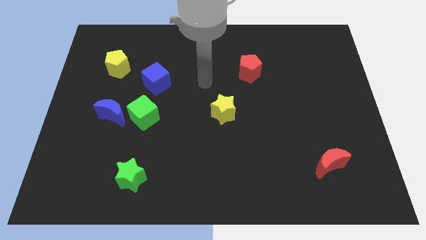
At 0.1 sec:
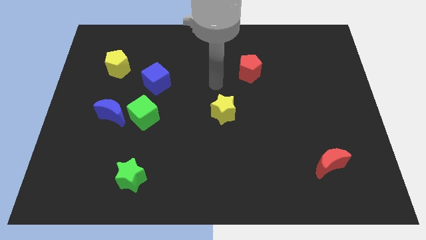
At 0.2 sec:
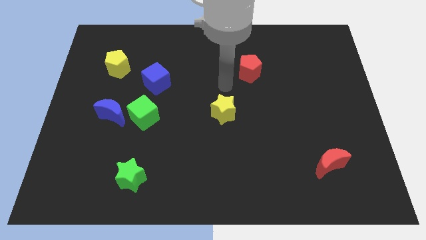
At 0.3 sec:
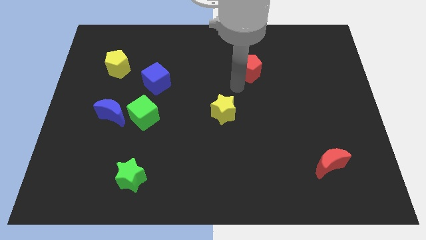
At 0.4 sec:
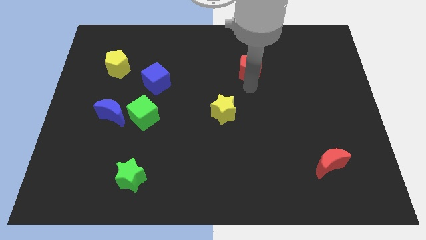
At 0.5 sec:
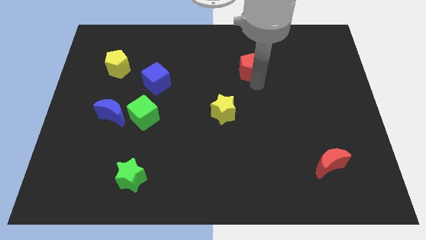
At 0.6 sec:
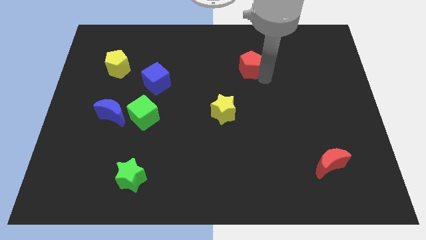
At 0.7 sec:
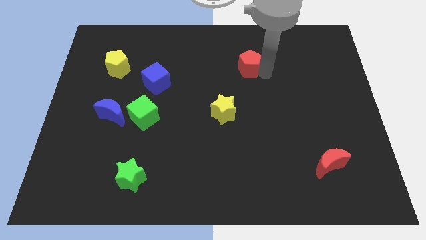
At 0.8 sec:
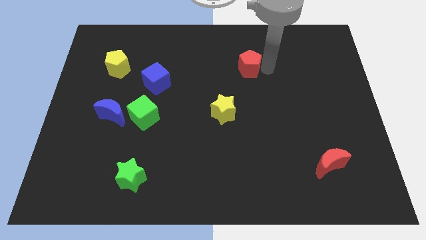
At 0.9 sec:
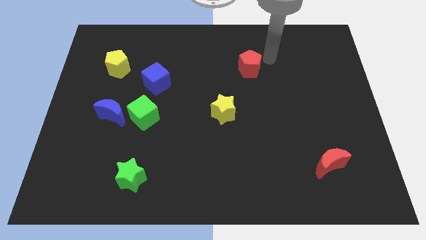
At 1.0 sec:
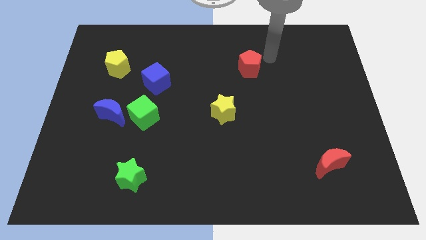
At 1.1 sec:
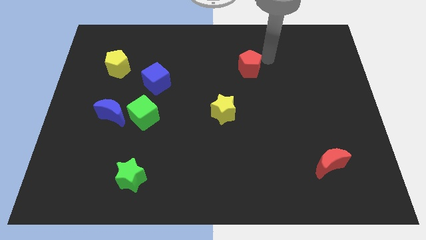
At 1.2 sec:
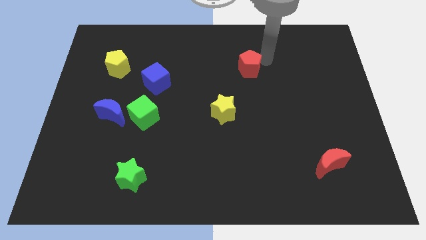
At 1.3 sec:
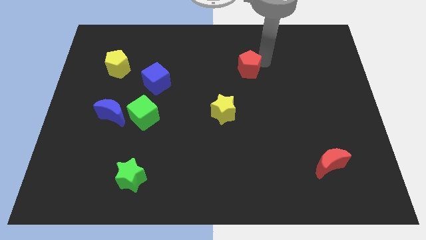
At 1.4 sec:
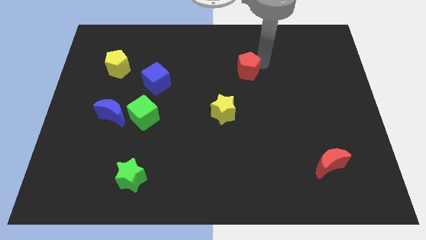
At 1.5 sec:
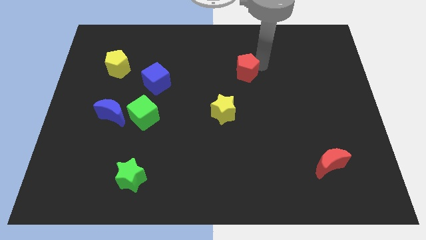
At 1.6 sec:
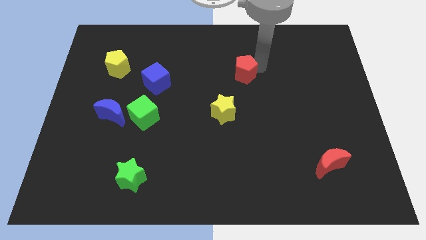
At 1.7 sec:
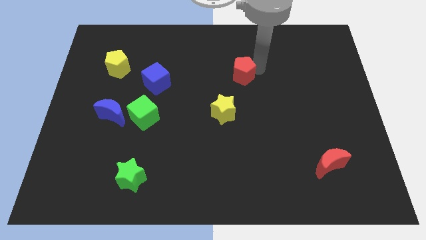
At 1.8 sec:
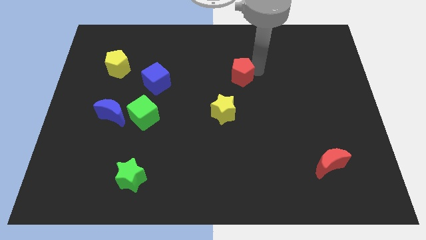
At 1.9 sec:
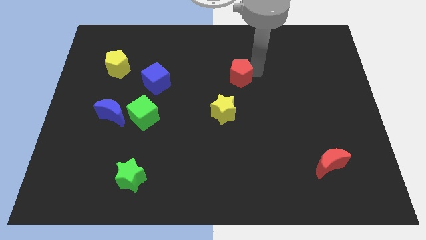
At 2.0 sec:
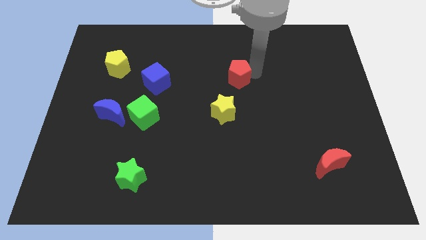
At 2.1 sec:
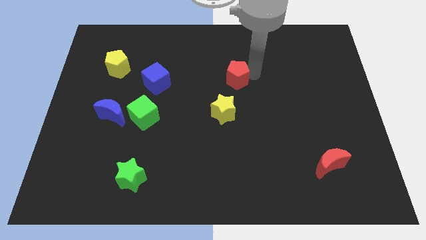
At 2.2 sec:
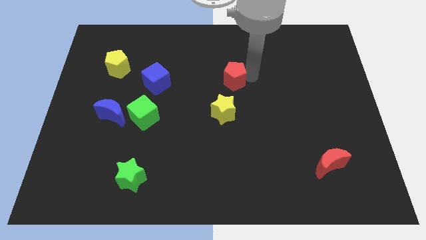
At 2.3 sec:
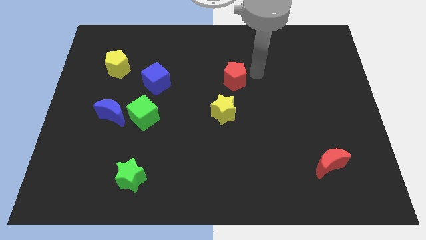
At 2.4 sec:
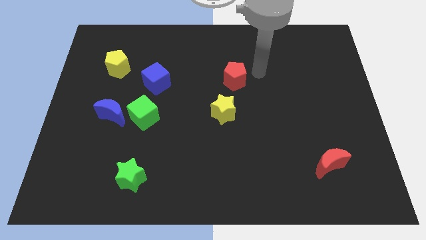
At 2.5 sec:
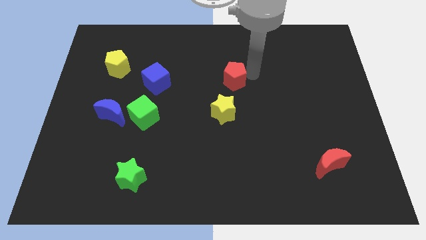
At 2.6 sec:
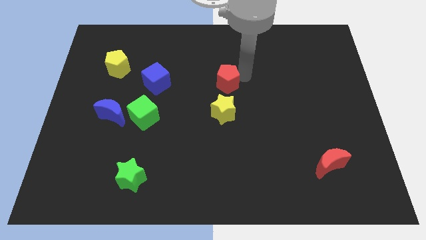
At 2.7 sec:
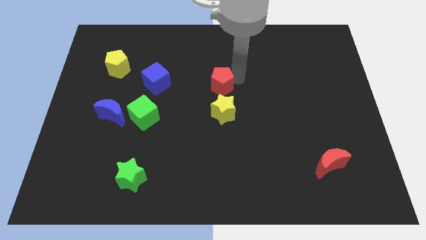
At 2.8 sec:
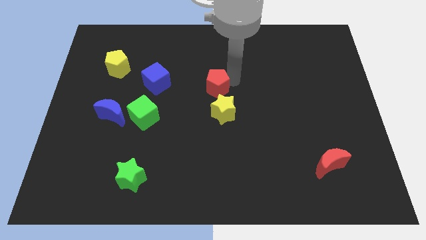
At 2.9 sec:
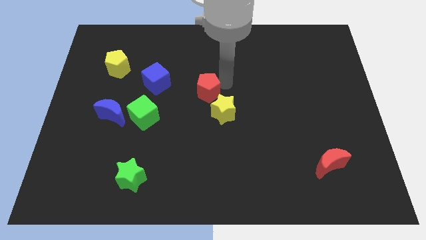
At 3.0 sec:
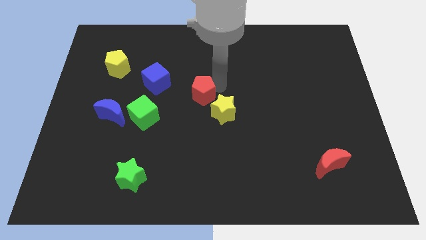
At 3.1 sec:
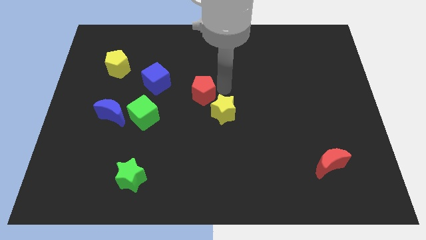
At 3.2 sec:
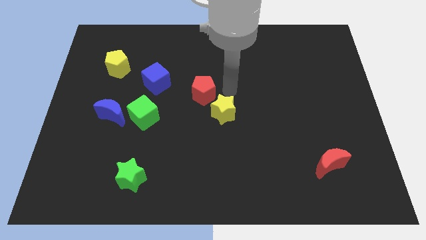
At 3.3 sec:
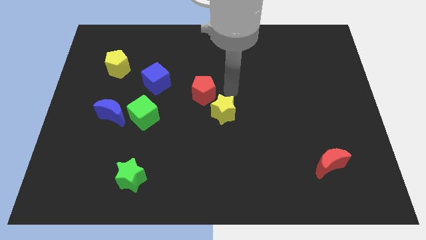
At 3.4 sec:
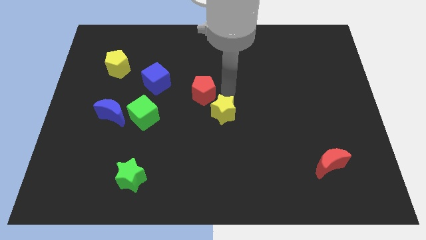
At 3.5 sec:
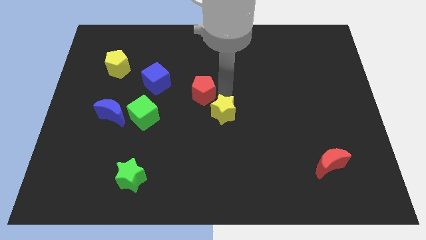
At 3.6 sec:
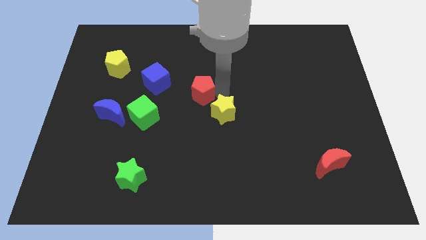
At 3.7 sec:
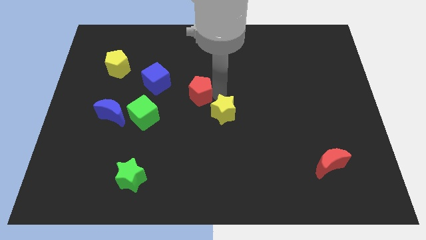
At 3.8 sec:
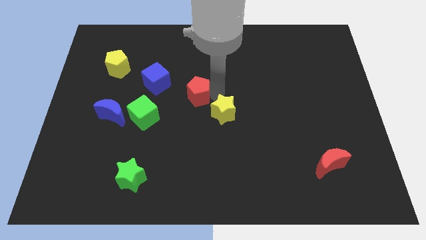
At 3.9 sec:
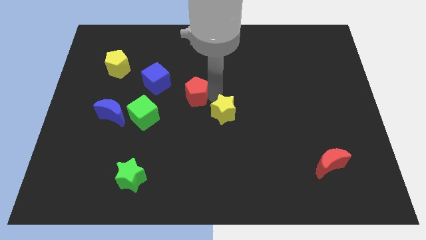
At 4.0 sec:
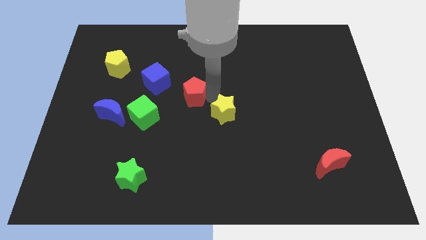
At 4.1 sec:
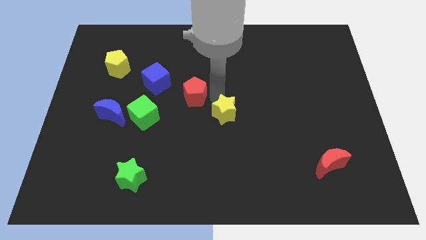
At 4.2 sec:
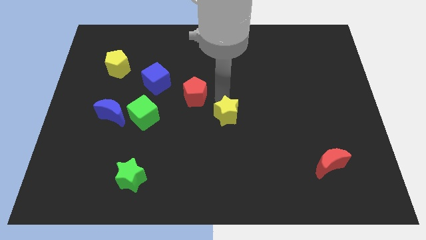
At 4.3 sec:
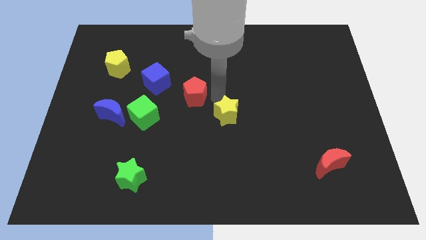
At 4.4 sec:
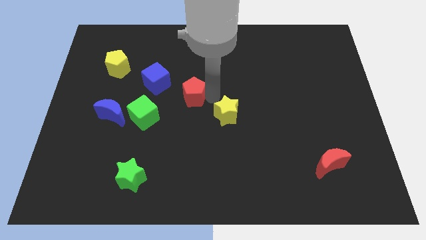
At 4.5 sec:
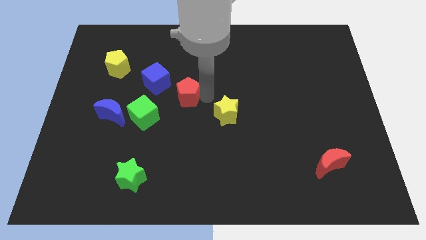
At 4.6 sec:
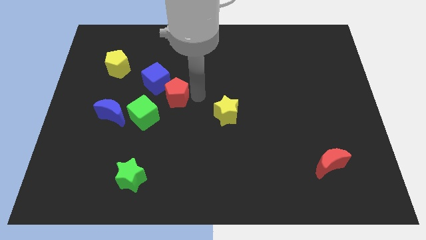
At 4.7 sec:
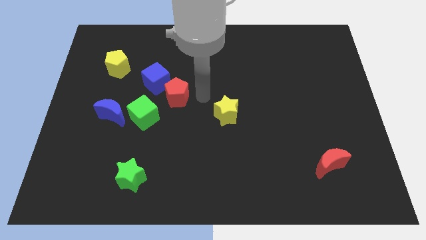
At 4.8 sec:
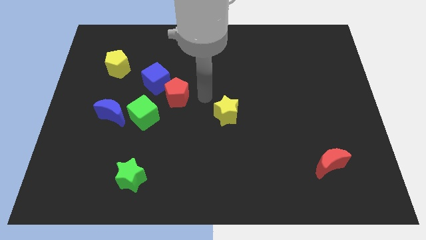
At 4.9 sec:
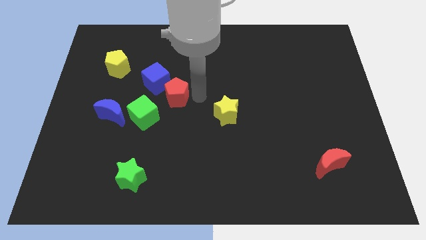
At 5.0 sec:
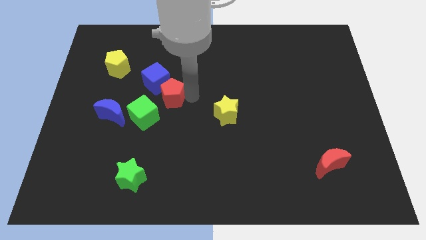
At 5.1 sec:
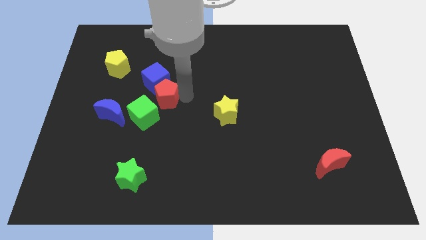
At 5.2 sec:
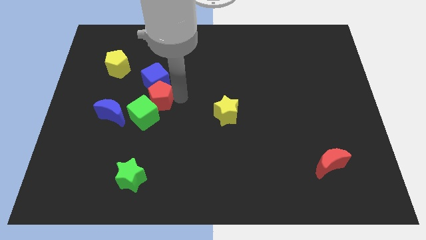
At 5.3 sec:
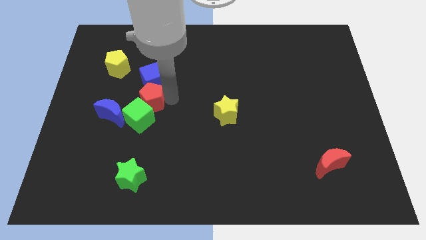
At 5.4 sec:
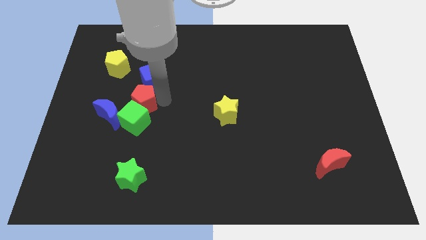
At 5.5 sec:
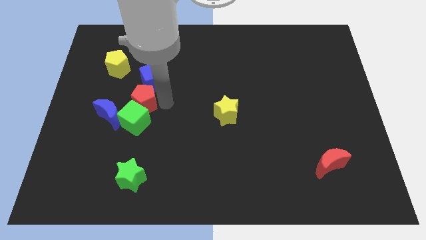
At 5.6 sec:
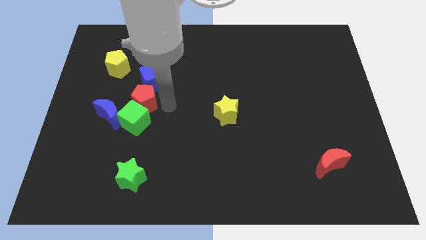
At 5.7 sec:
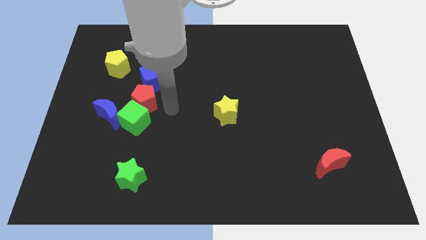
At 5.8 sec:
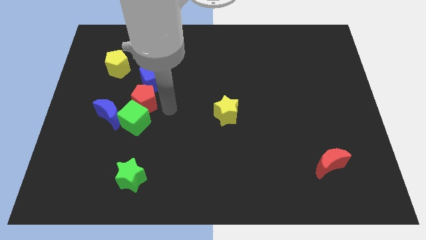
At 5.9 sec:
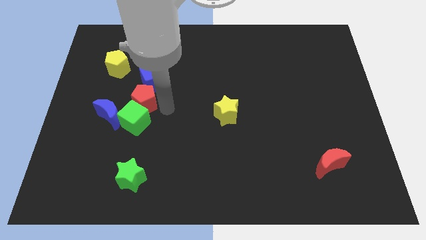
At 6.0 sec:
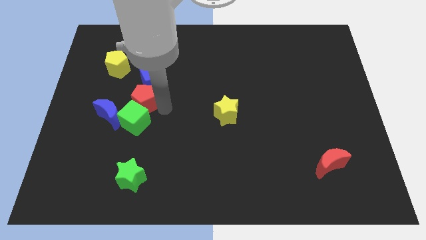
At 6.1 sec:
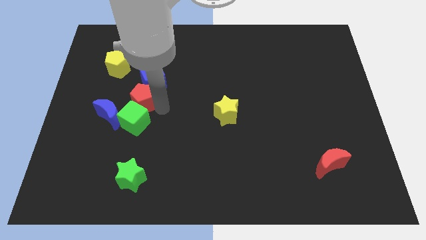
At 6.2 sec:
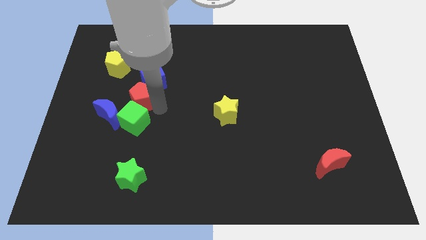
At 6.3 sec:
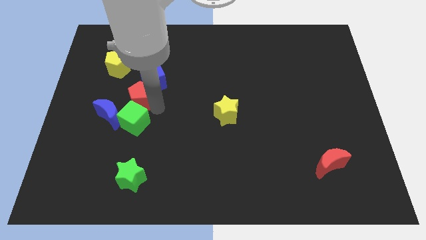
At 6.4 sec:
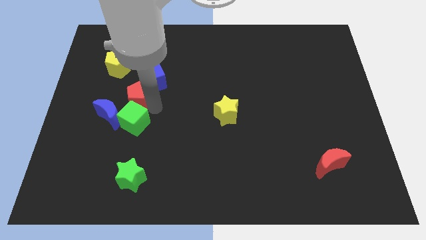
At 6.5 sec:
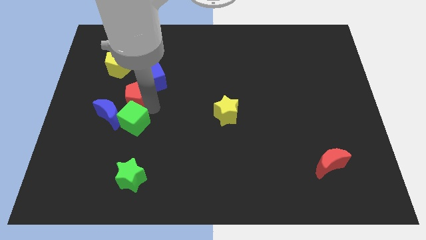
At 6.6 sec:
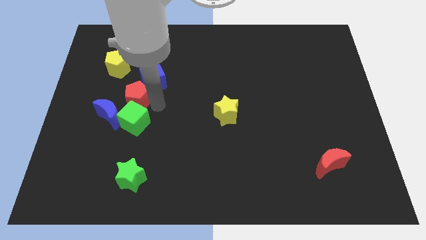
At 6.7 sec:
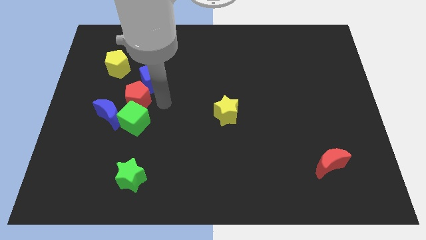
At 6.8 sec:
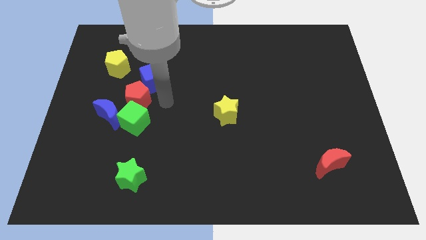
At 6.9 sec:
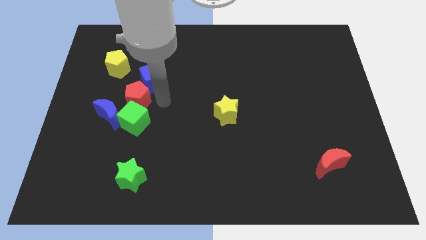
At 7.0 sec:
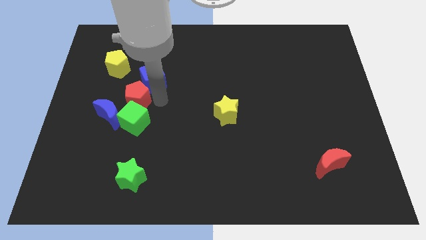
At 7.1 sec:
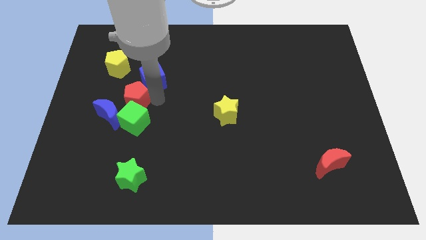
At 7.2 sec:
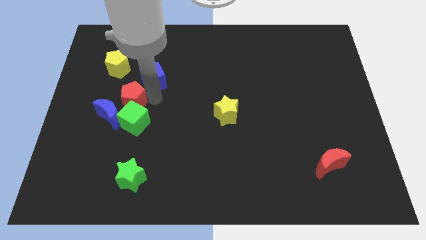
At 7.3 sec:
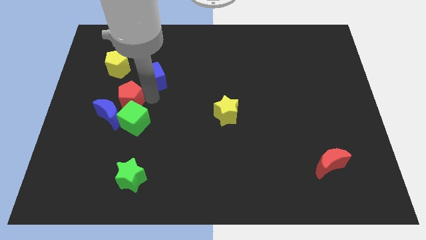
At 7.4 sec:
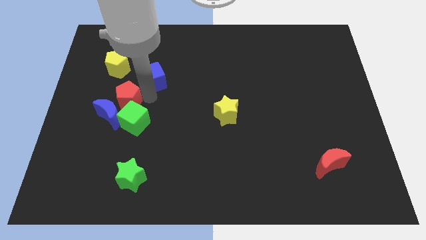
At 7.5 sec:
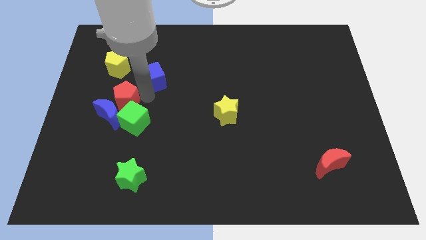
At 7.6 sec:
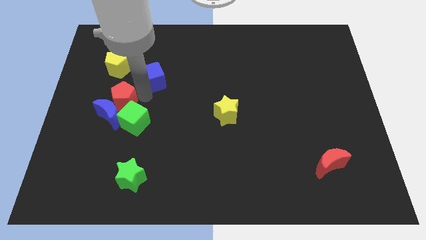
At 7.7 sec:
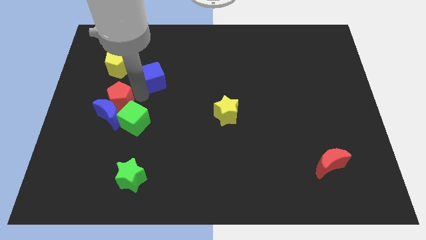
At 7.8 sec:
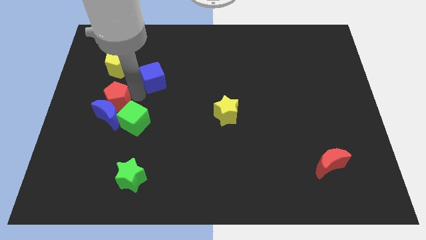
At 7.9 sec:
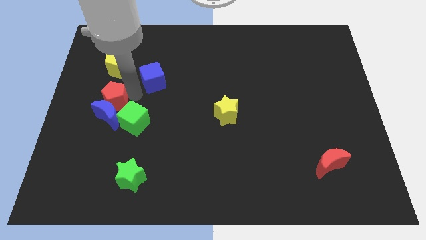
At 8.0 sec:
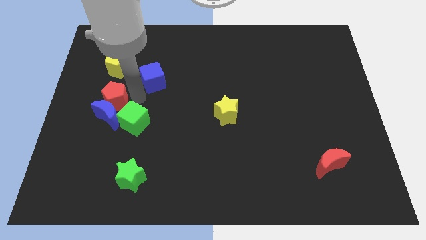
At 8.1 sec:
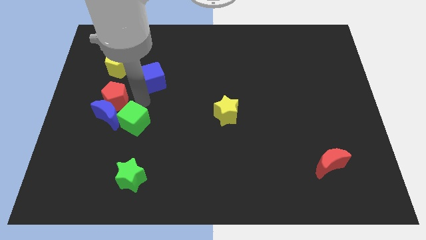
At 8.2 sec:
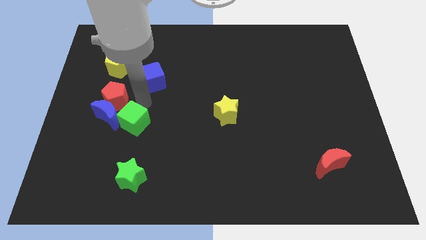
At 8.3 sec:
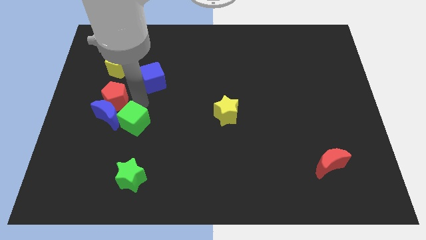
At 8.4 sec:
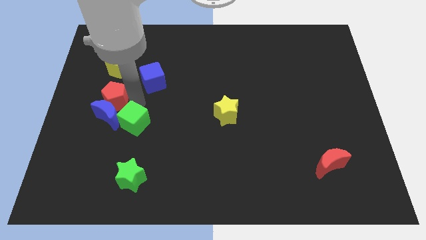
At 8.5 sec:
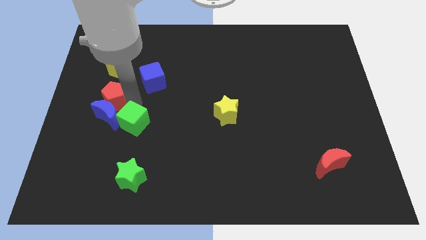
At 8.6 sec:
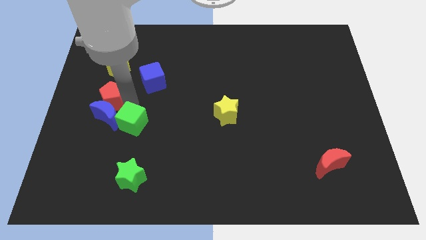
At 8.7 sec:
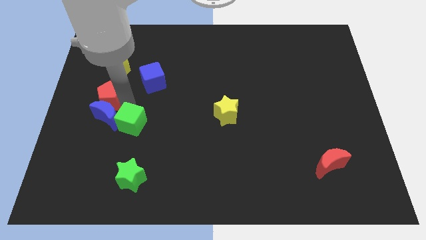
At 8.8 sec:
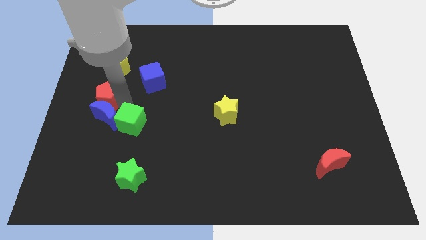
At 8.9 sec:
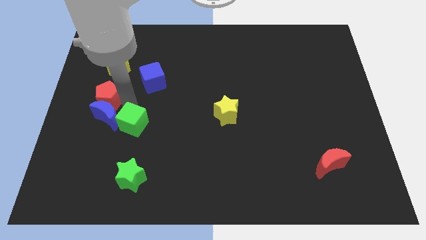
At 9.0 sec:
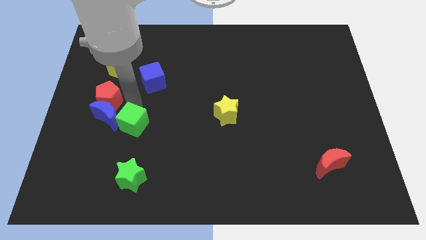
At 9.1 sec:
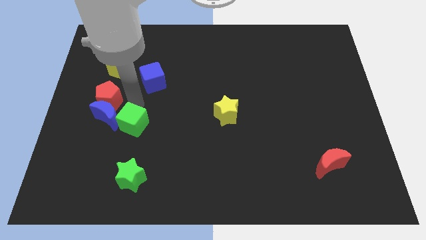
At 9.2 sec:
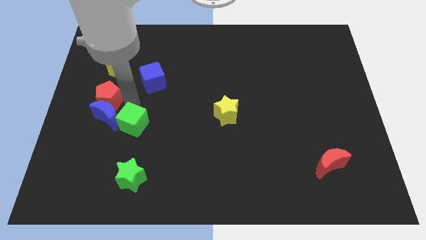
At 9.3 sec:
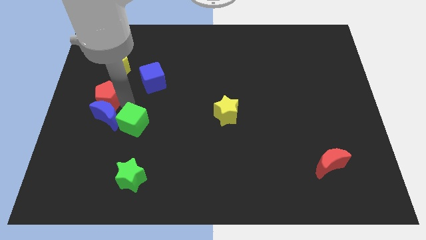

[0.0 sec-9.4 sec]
push the red pentagon to the left side
